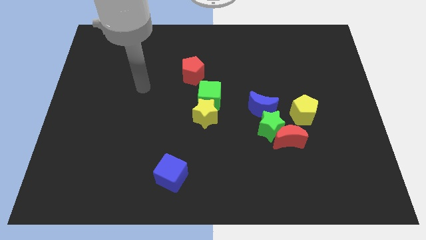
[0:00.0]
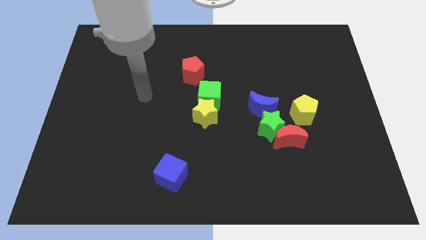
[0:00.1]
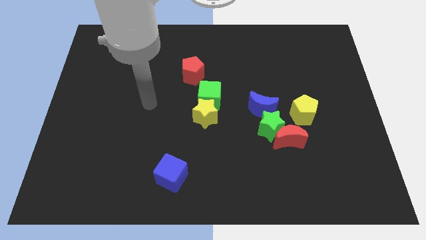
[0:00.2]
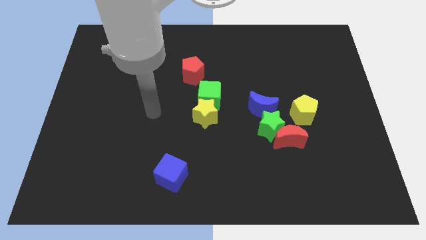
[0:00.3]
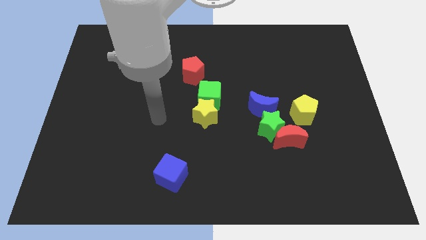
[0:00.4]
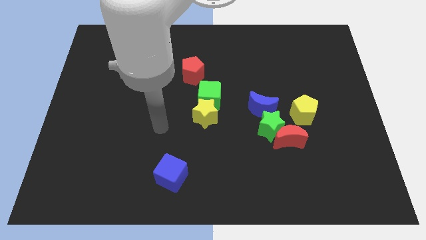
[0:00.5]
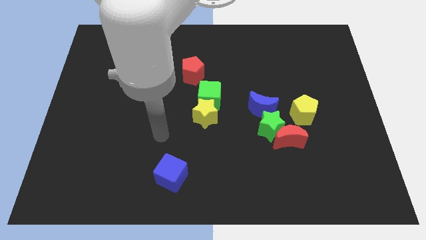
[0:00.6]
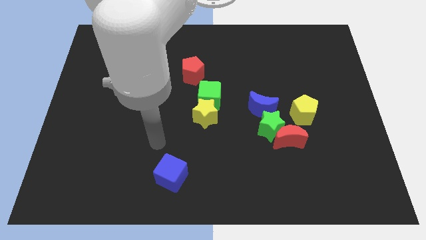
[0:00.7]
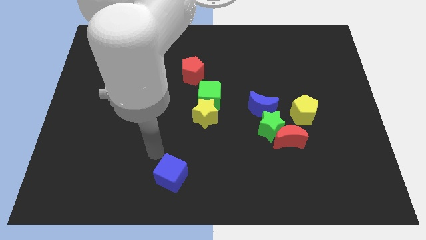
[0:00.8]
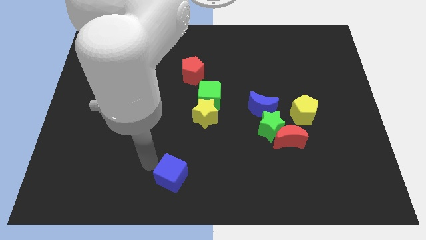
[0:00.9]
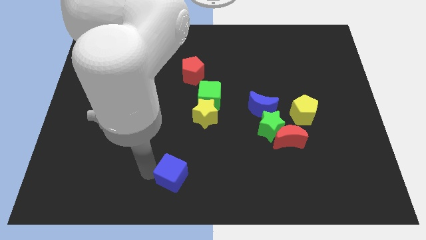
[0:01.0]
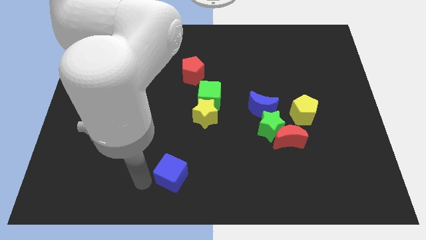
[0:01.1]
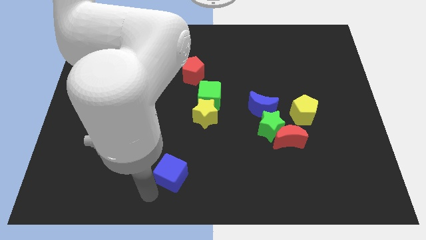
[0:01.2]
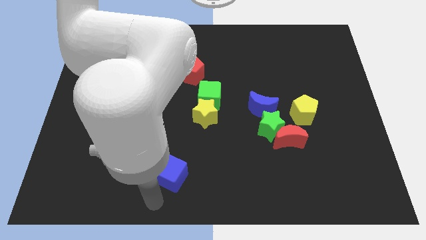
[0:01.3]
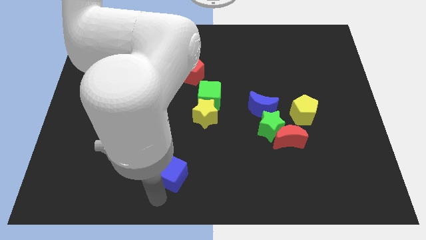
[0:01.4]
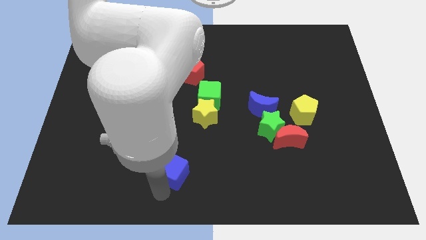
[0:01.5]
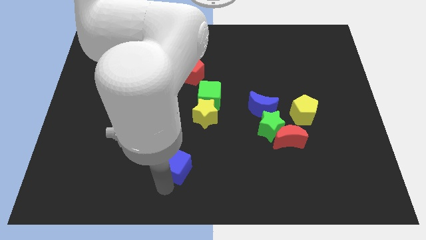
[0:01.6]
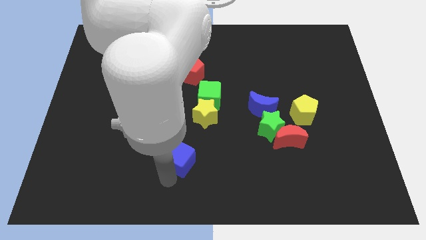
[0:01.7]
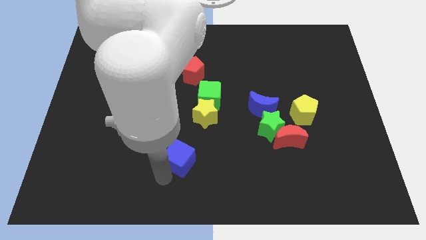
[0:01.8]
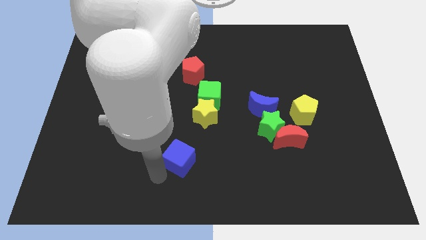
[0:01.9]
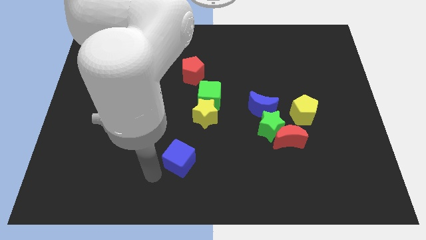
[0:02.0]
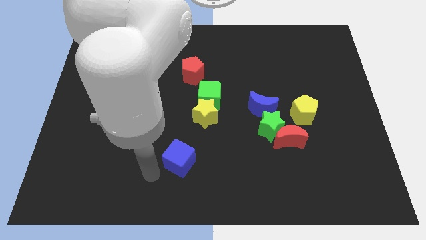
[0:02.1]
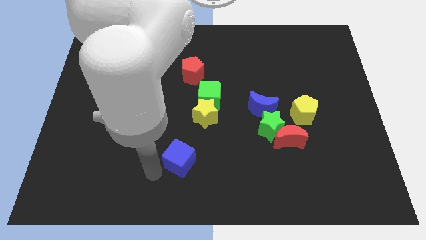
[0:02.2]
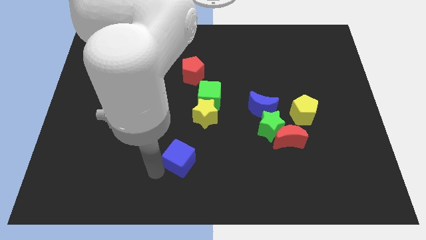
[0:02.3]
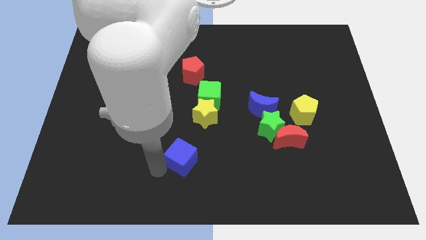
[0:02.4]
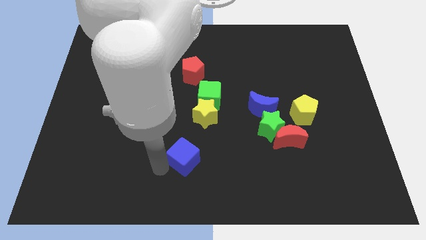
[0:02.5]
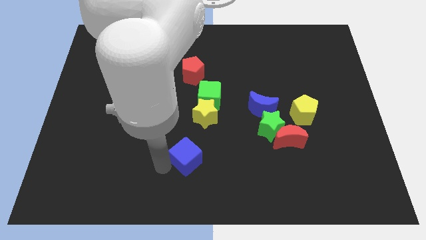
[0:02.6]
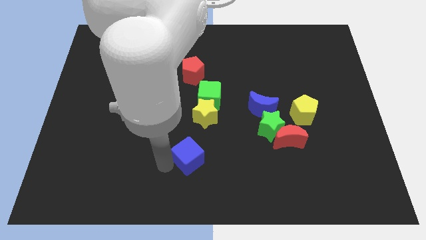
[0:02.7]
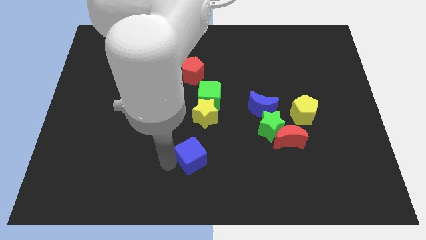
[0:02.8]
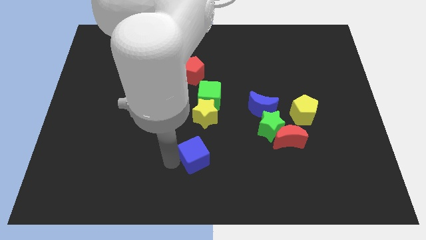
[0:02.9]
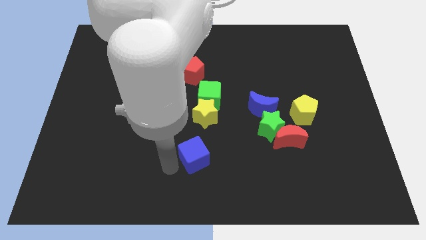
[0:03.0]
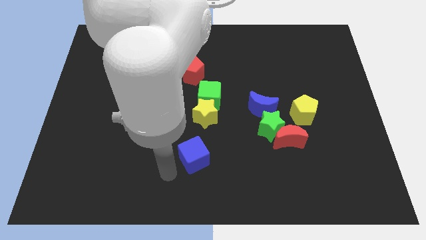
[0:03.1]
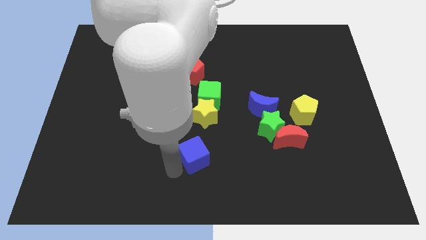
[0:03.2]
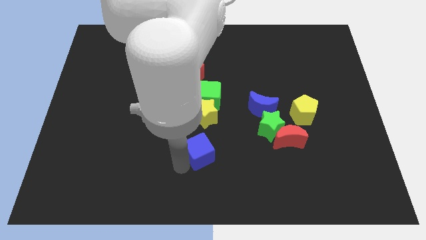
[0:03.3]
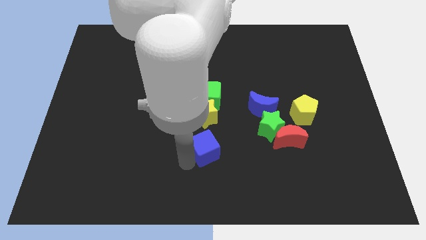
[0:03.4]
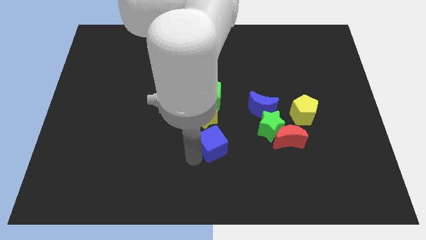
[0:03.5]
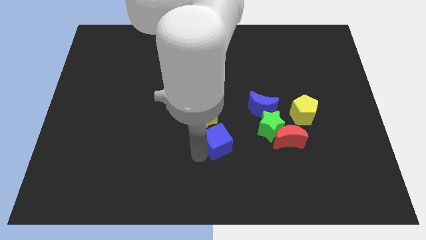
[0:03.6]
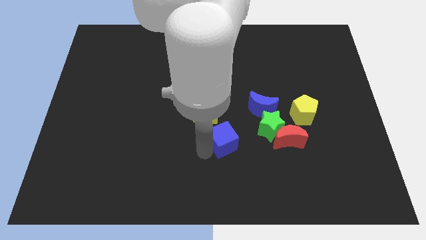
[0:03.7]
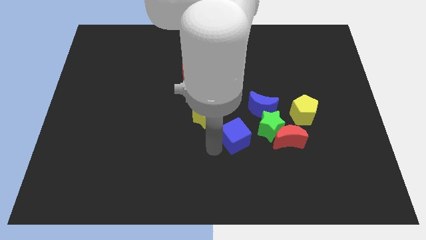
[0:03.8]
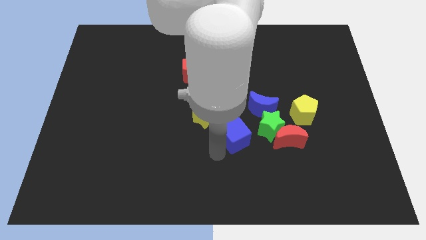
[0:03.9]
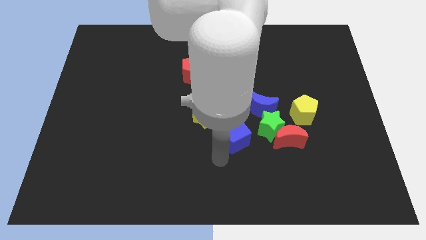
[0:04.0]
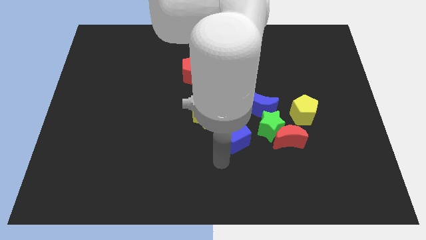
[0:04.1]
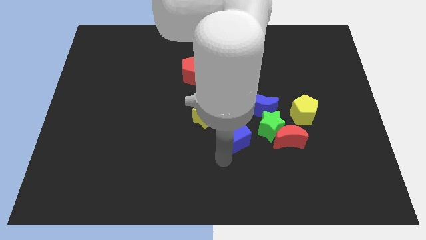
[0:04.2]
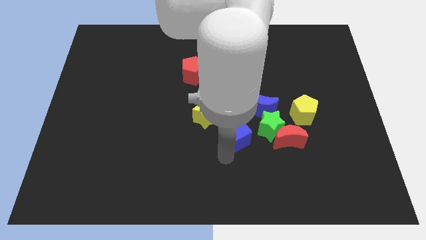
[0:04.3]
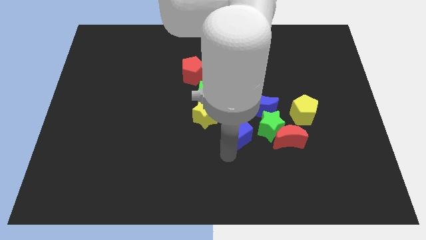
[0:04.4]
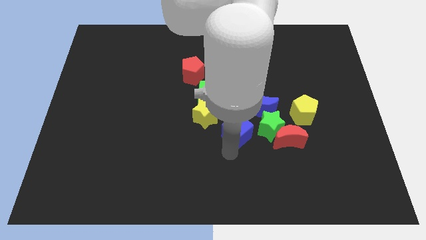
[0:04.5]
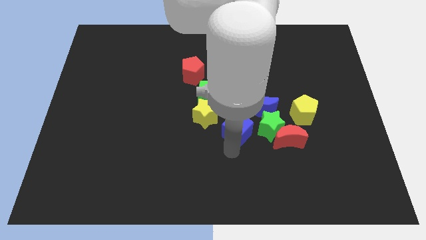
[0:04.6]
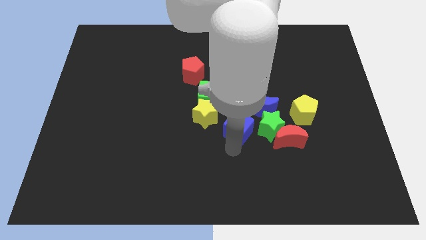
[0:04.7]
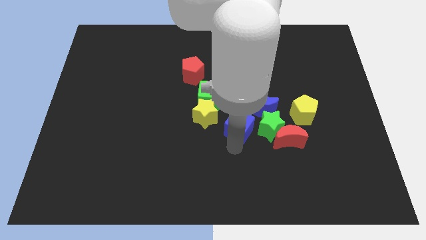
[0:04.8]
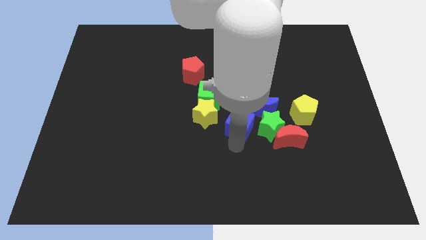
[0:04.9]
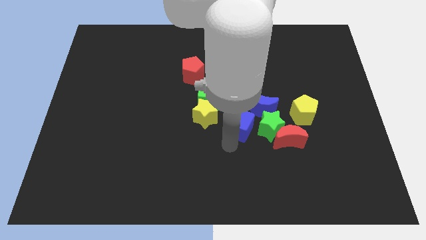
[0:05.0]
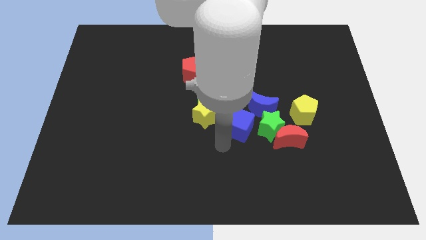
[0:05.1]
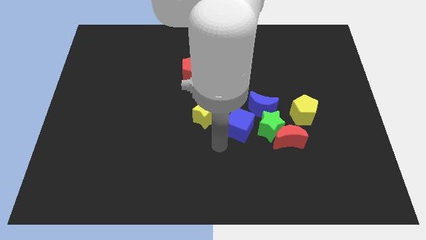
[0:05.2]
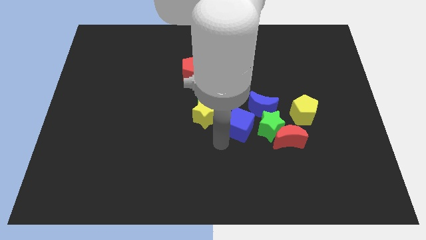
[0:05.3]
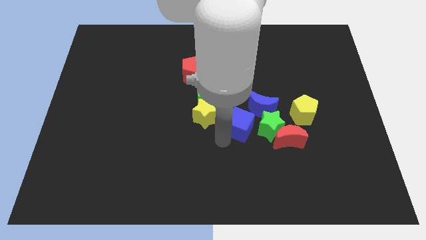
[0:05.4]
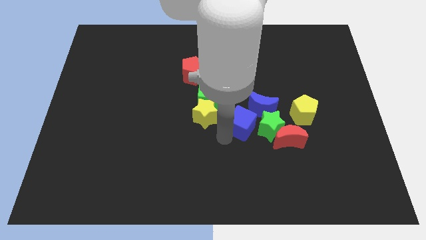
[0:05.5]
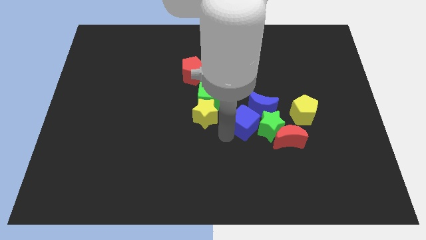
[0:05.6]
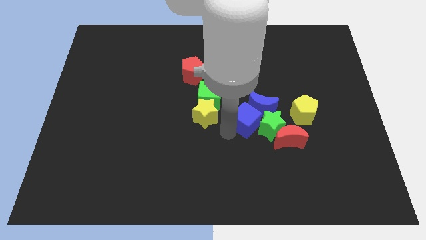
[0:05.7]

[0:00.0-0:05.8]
move the blue cube towards the blue moon

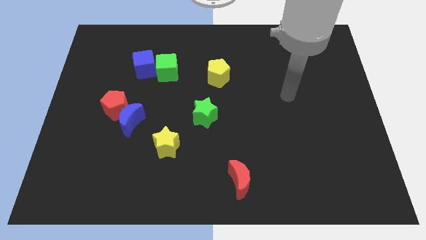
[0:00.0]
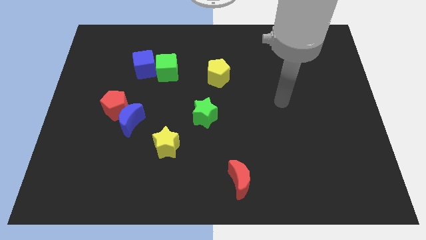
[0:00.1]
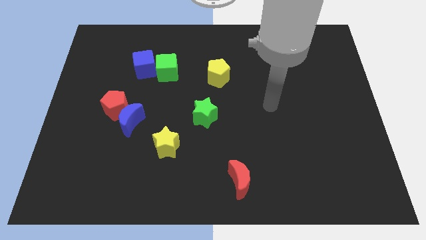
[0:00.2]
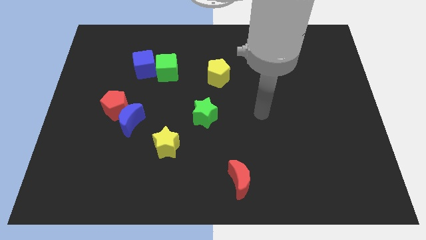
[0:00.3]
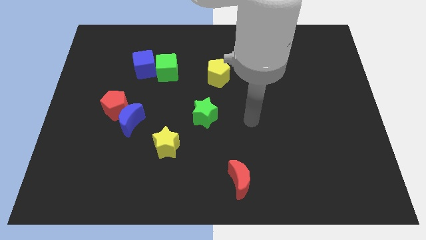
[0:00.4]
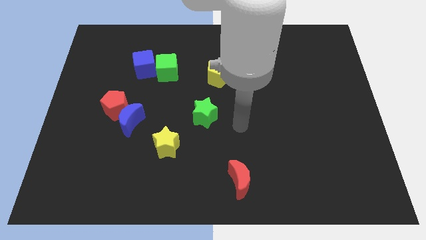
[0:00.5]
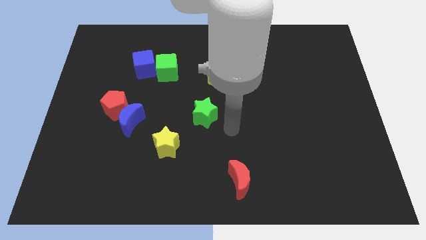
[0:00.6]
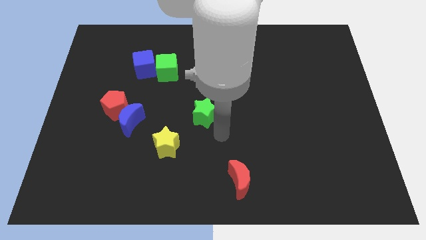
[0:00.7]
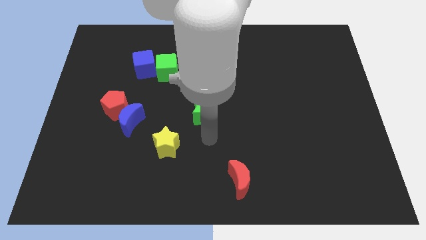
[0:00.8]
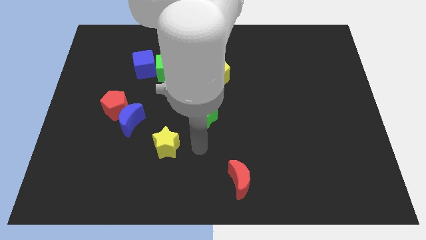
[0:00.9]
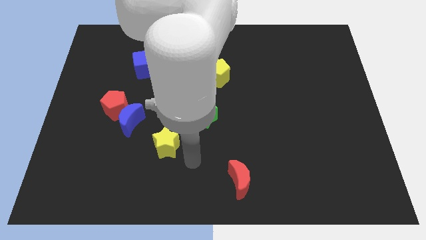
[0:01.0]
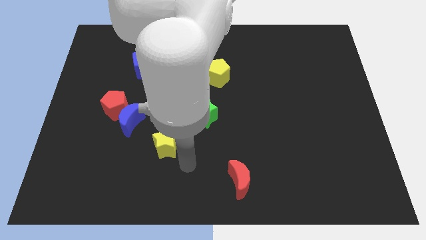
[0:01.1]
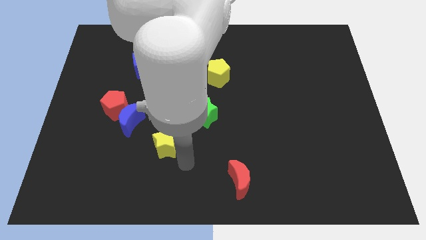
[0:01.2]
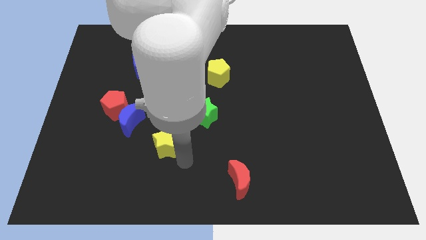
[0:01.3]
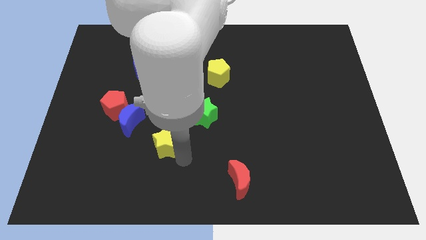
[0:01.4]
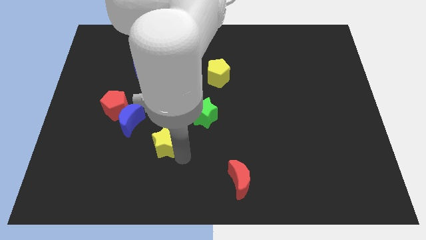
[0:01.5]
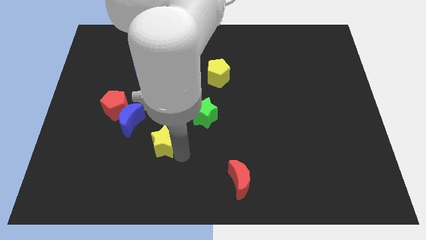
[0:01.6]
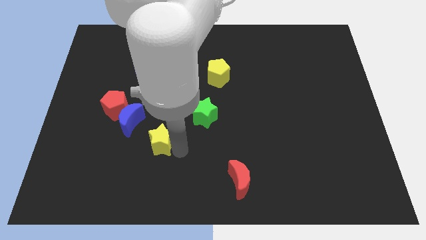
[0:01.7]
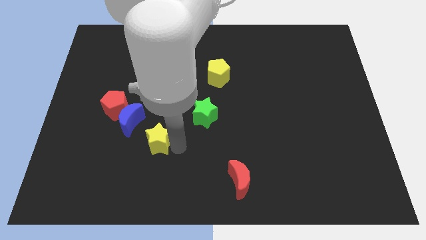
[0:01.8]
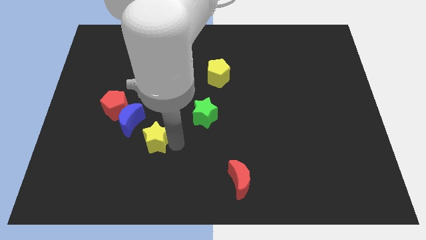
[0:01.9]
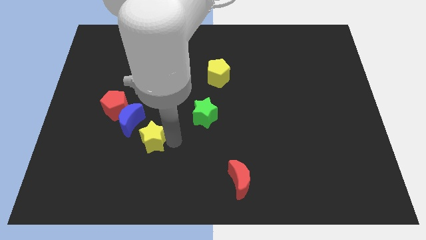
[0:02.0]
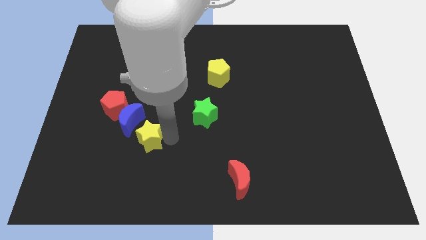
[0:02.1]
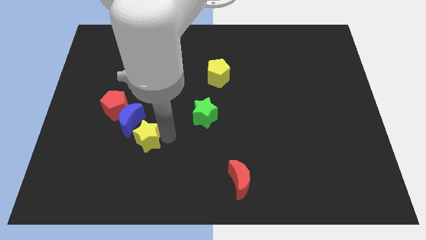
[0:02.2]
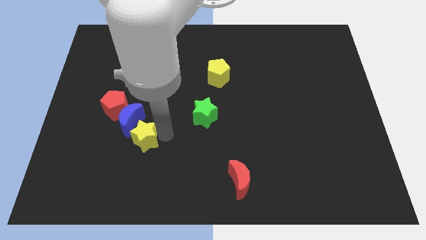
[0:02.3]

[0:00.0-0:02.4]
slide the yellow star to the blue moon
